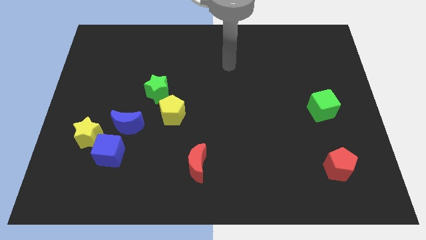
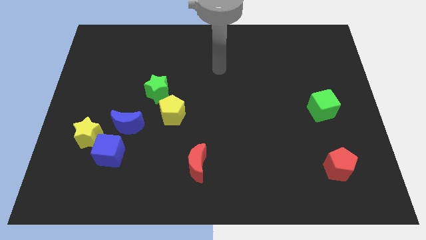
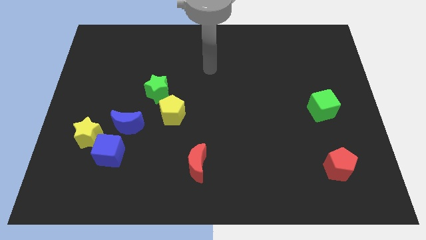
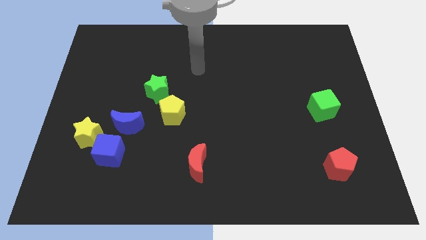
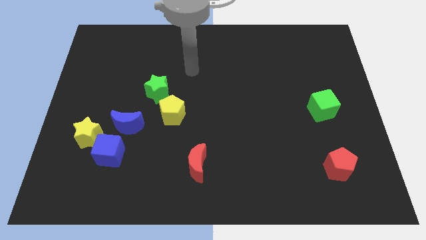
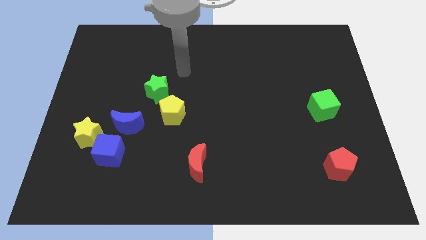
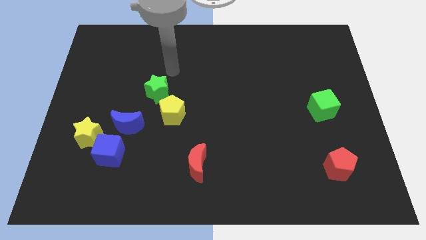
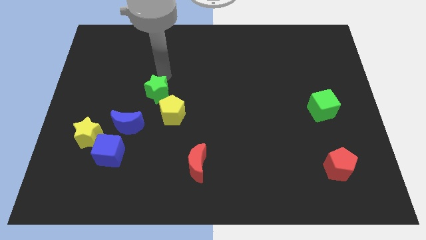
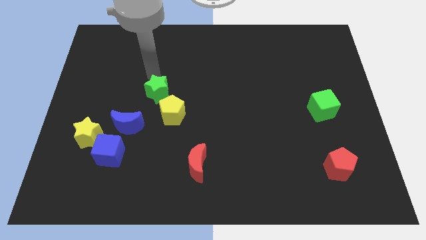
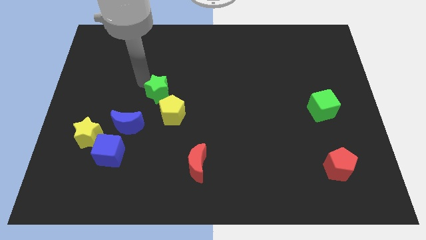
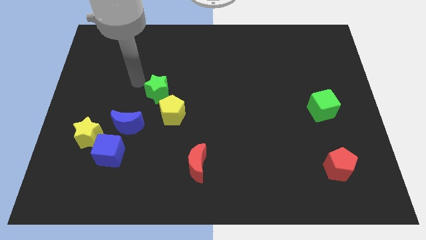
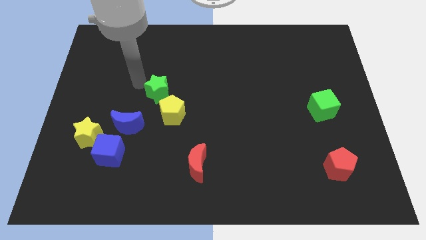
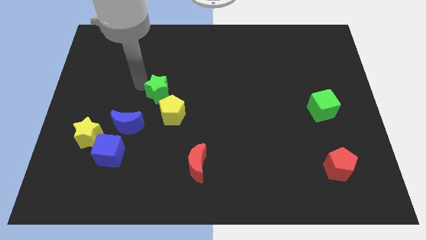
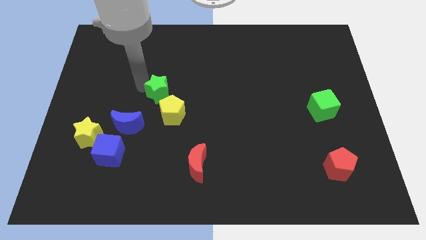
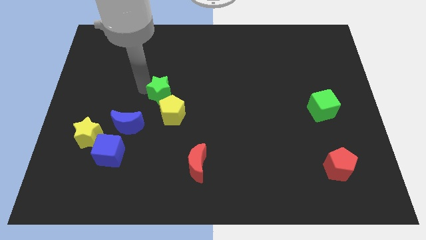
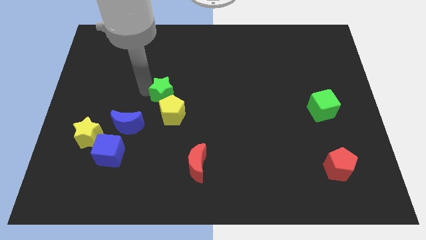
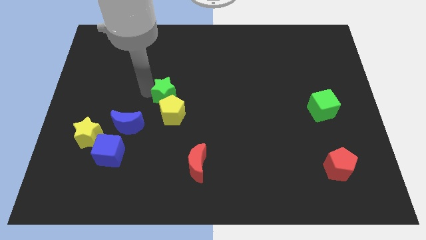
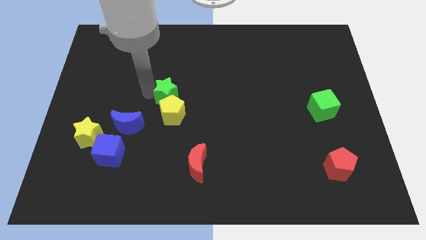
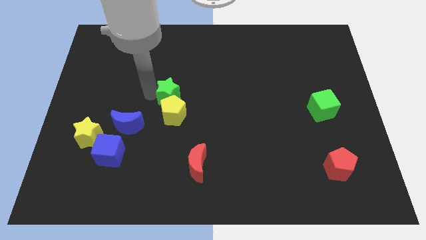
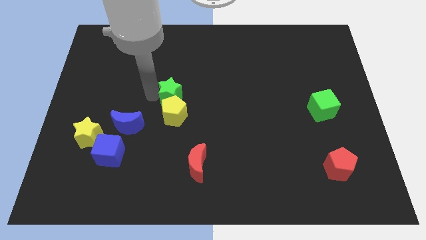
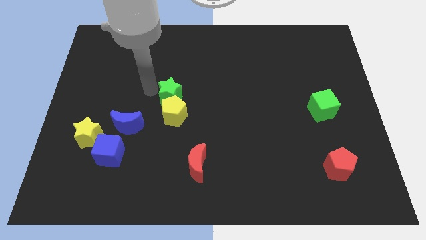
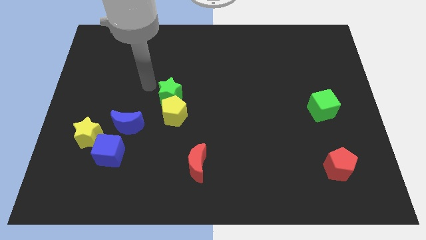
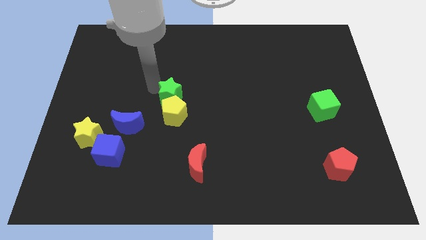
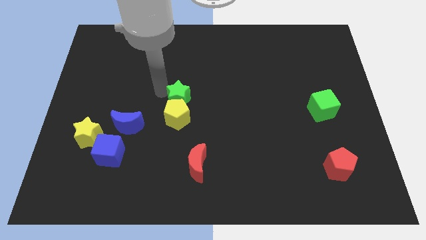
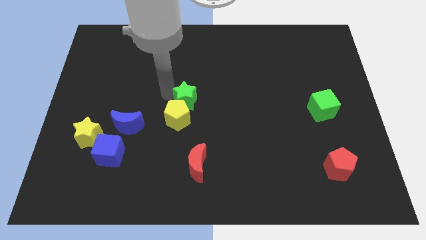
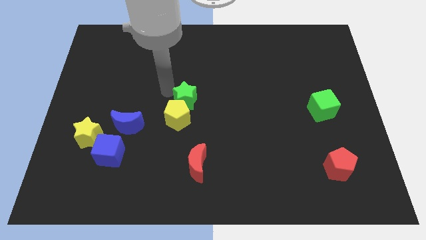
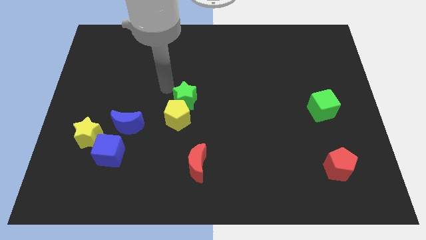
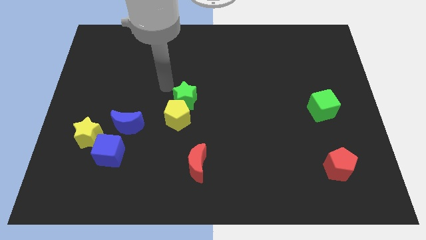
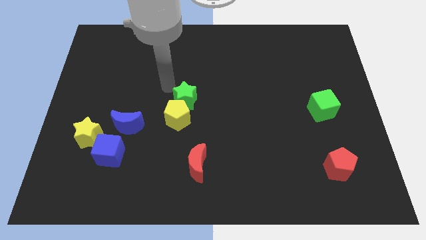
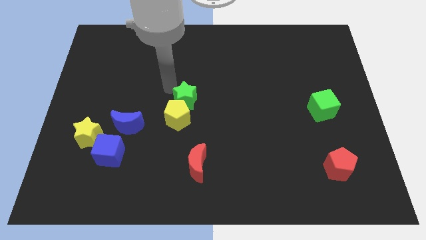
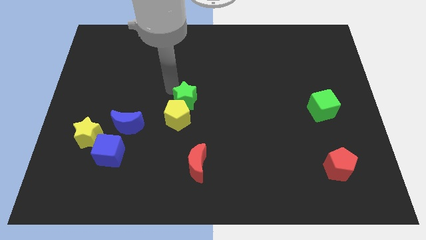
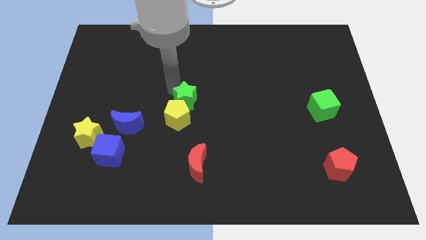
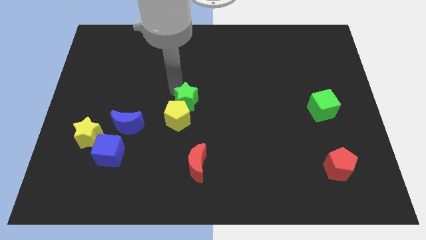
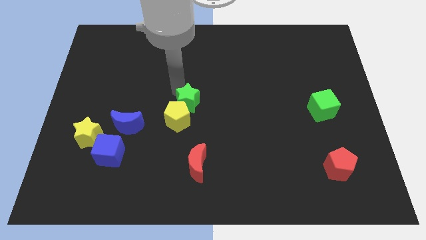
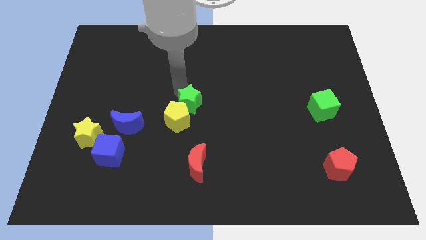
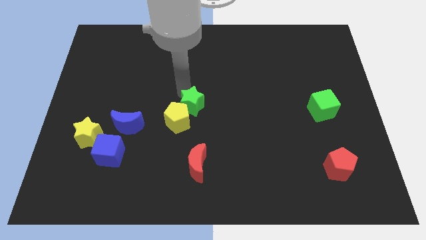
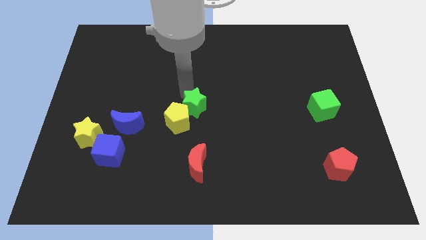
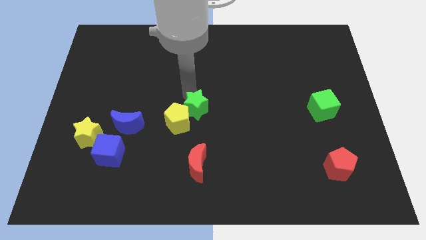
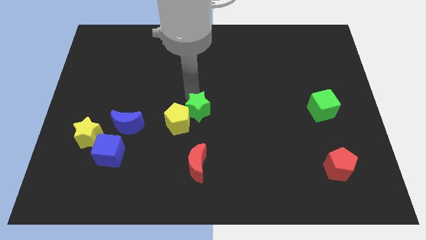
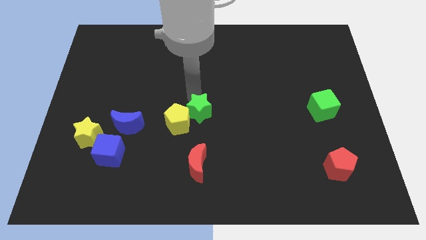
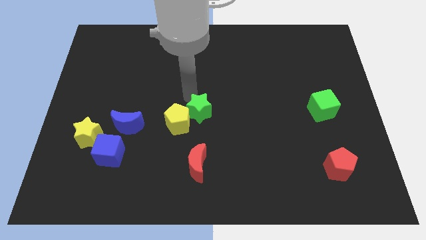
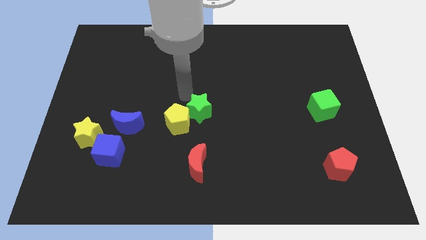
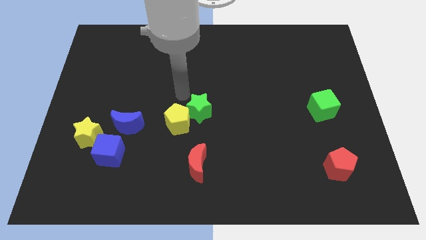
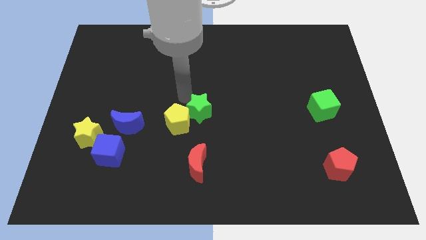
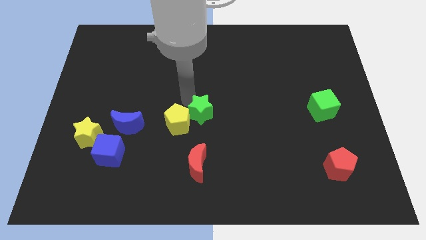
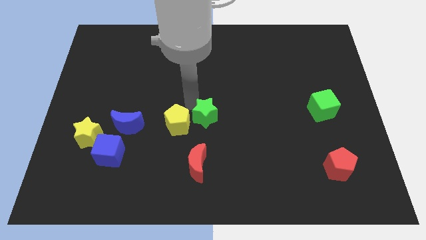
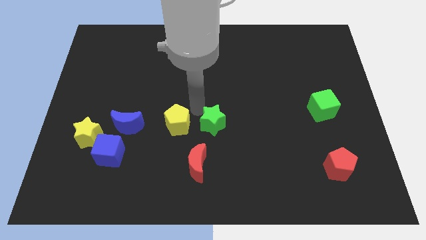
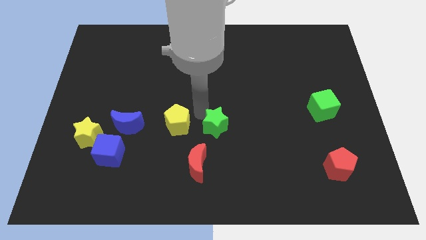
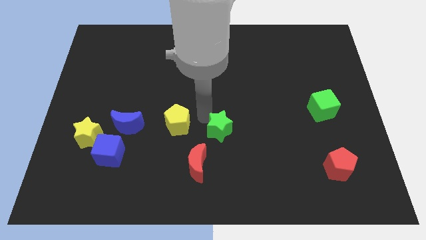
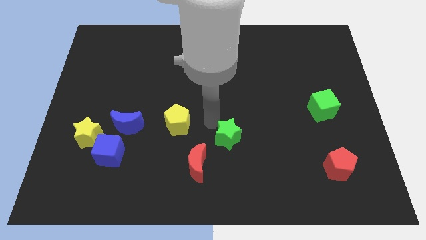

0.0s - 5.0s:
slide the green star diagonally down and right

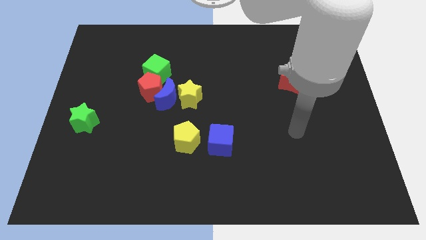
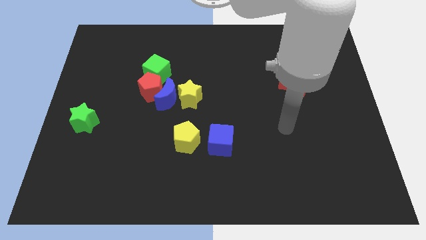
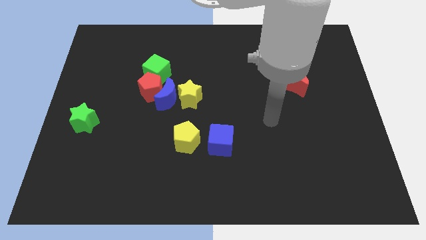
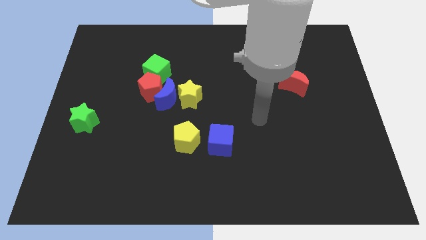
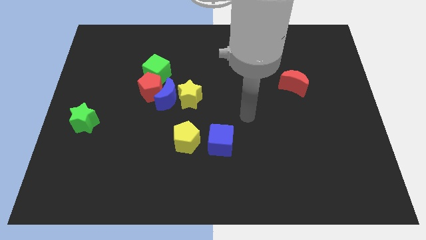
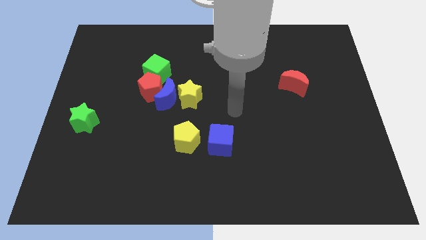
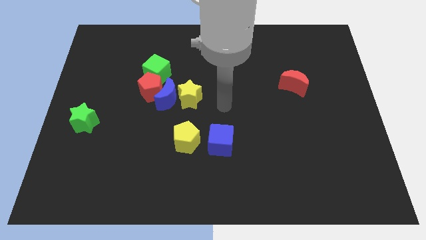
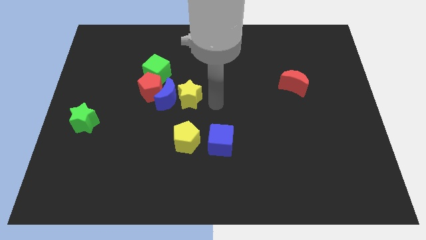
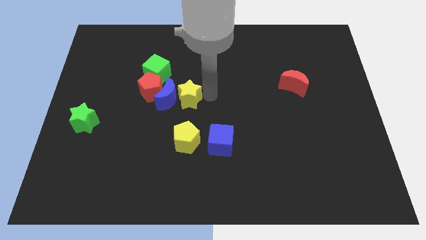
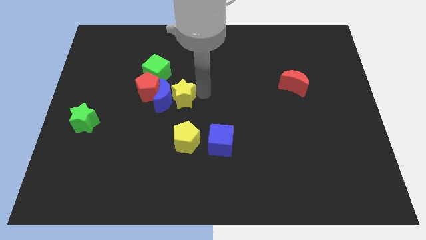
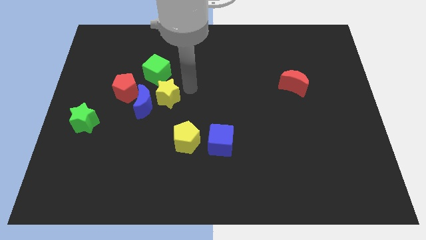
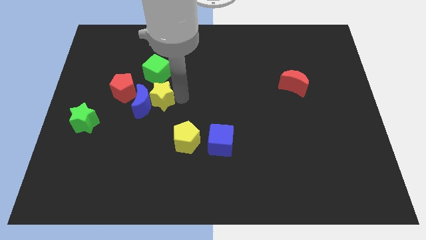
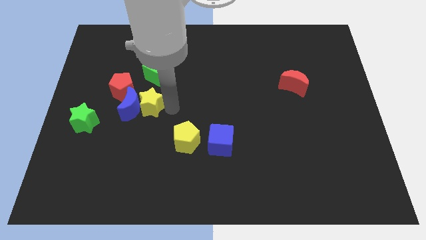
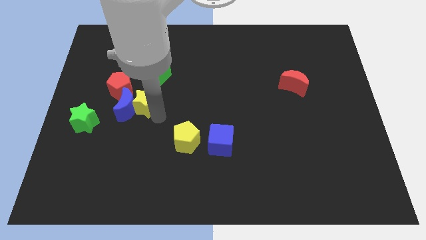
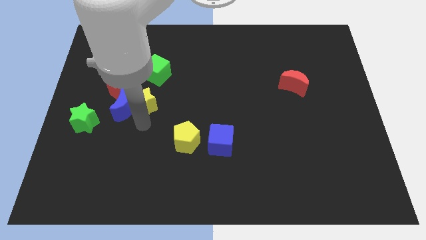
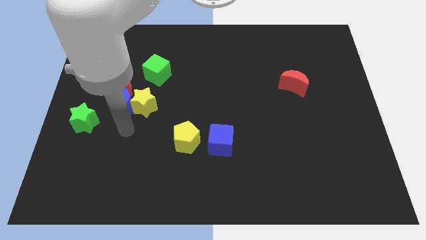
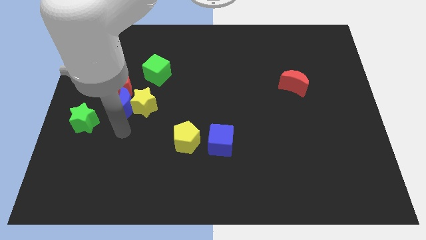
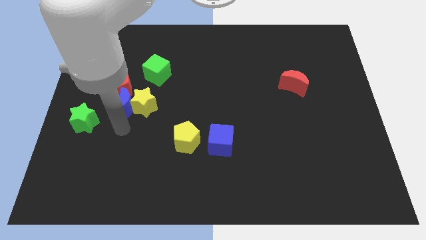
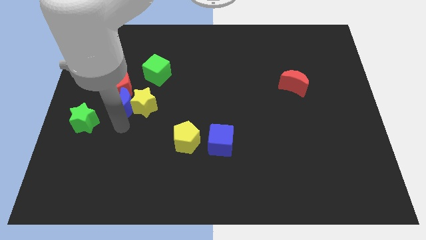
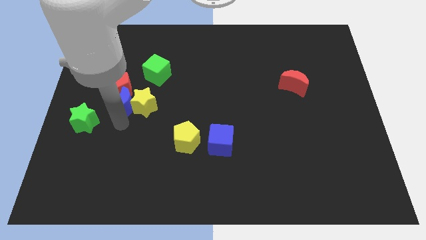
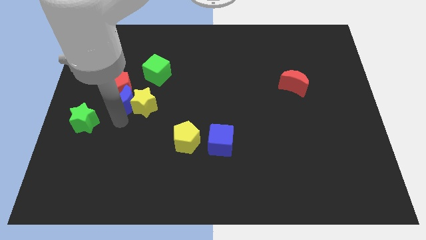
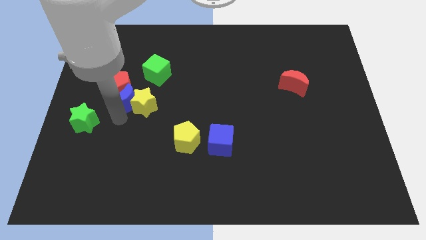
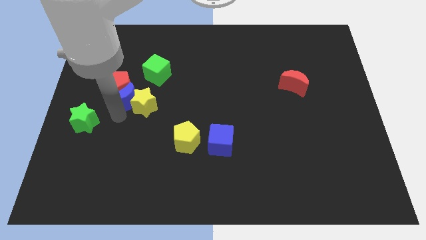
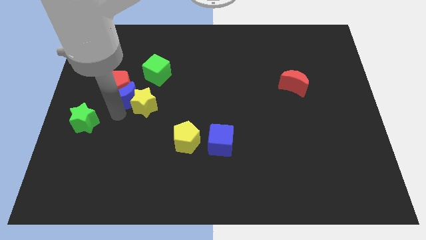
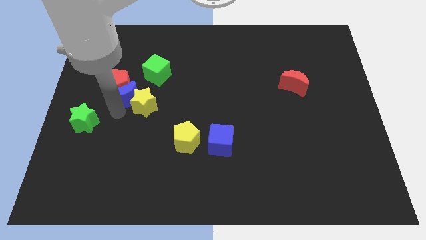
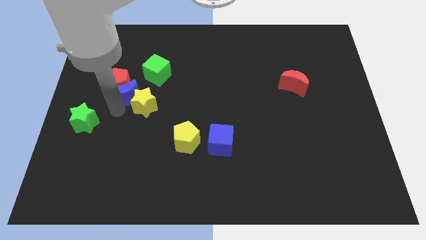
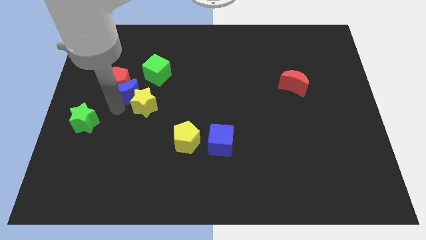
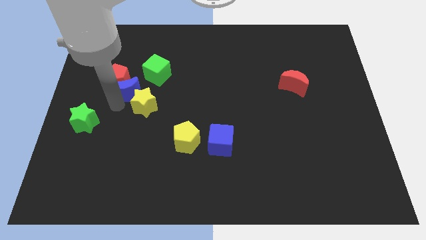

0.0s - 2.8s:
push the blue moon a little bit upwards and left diagonally
